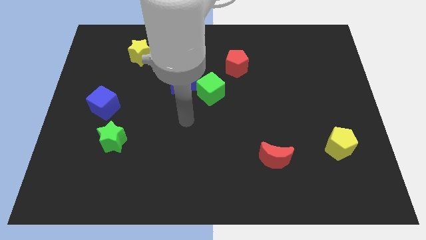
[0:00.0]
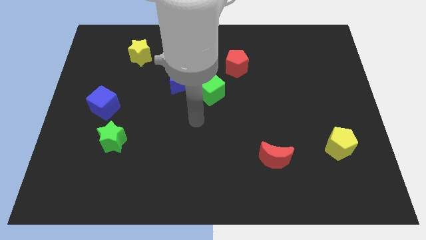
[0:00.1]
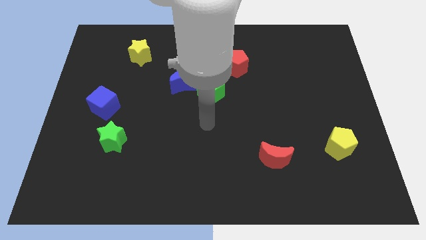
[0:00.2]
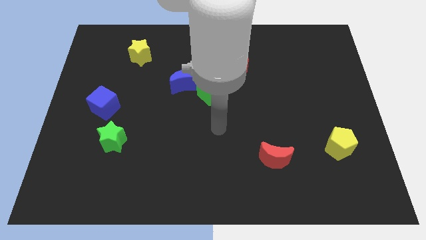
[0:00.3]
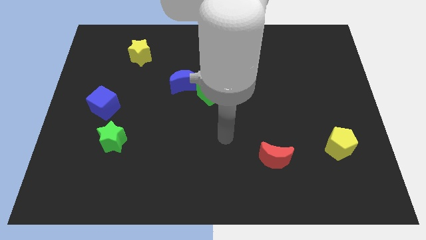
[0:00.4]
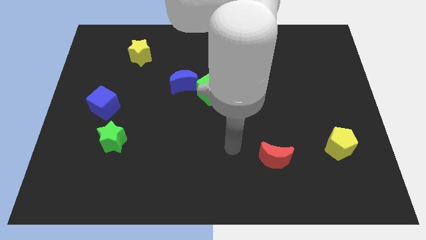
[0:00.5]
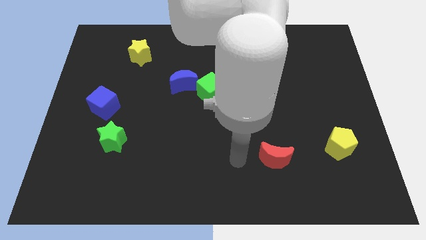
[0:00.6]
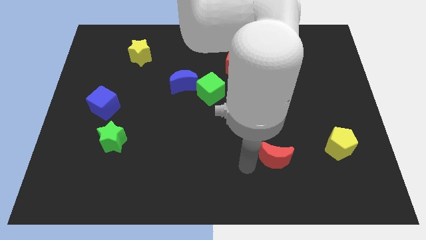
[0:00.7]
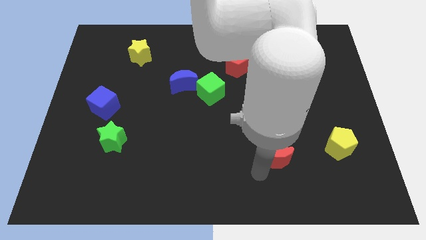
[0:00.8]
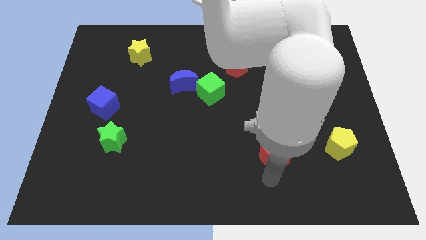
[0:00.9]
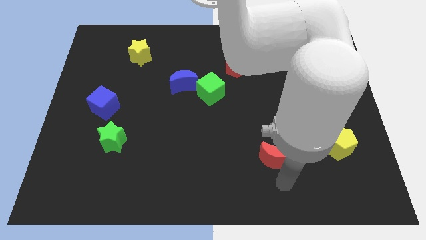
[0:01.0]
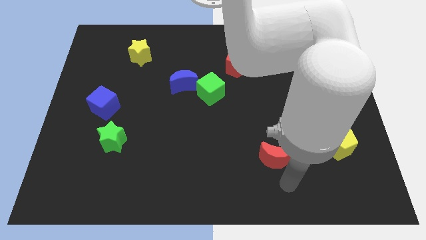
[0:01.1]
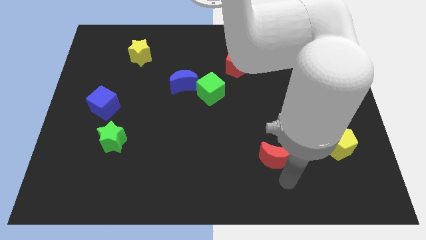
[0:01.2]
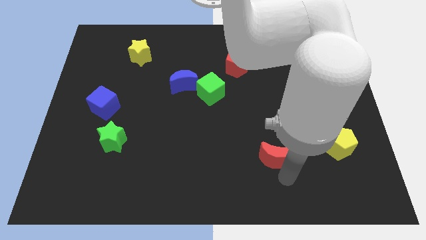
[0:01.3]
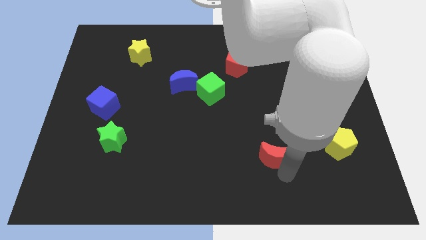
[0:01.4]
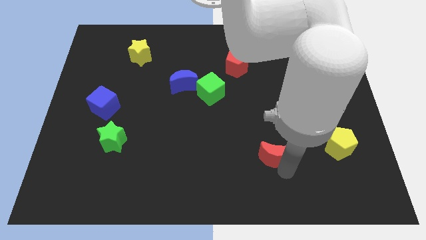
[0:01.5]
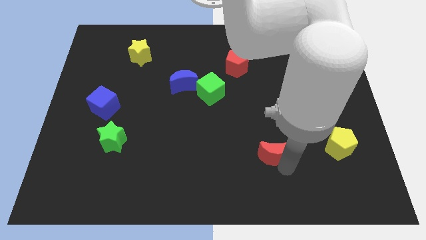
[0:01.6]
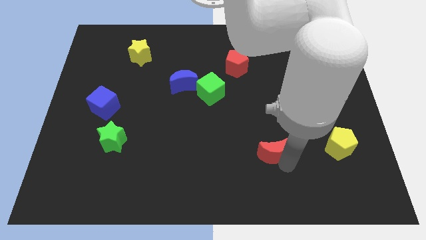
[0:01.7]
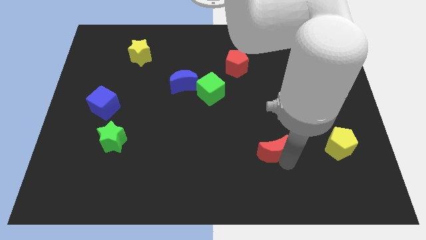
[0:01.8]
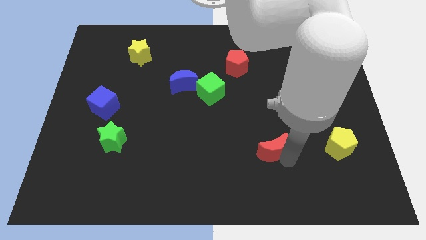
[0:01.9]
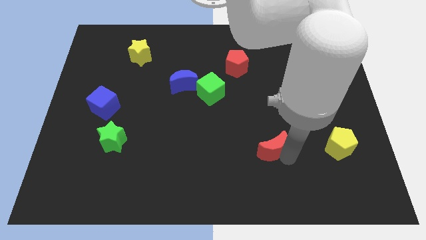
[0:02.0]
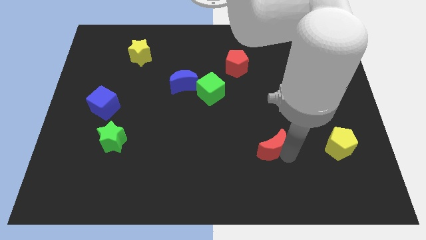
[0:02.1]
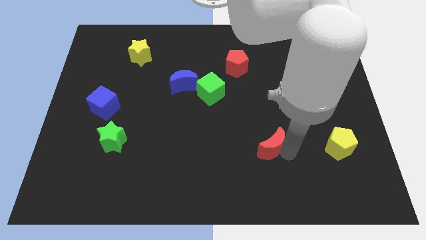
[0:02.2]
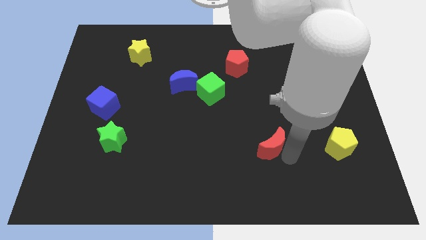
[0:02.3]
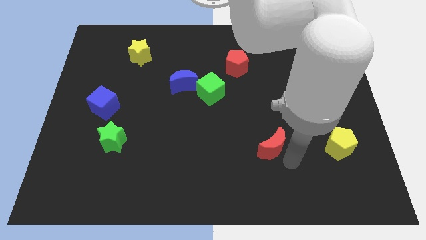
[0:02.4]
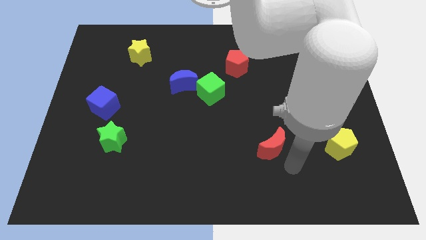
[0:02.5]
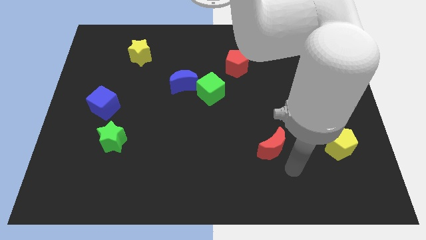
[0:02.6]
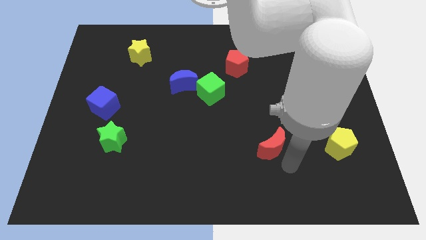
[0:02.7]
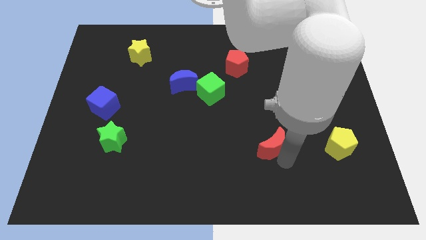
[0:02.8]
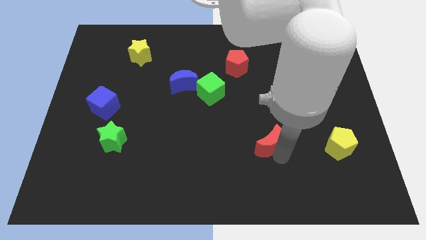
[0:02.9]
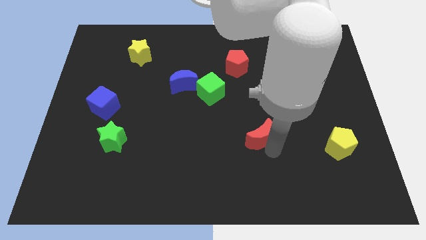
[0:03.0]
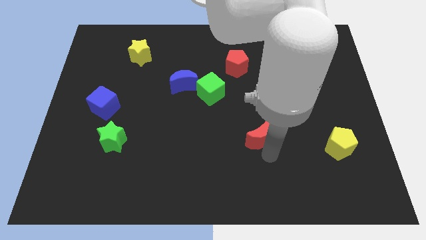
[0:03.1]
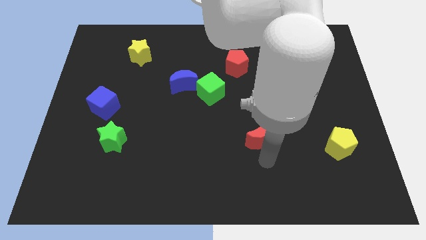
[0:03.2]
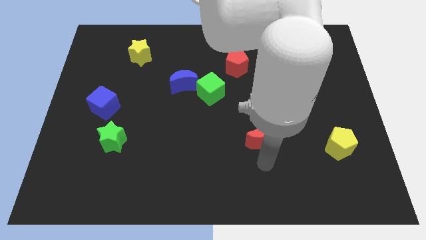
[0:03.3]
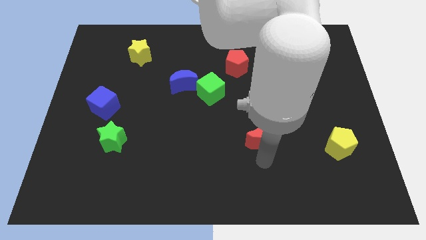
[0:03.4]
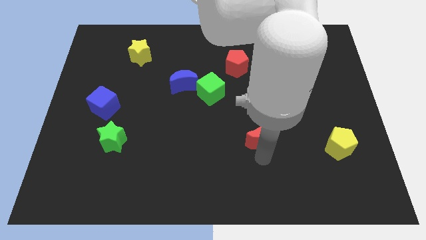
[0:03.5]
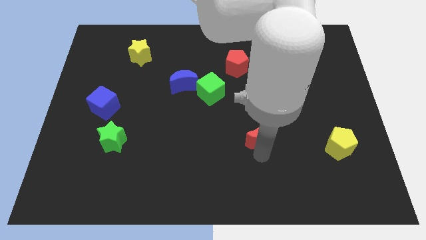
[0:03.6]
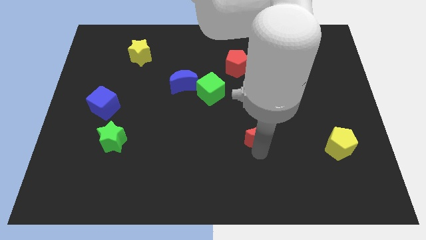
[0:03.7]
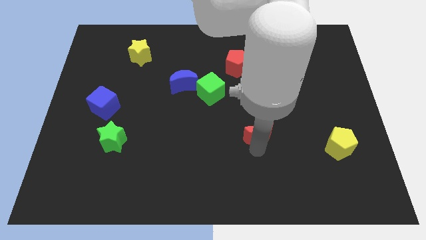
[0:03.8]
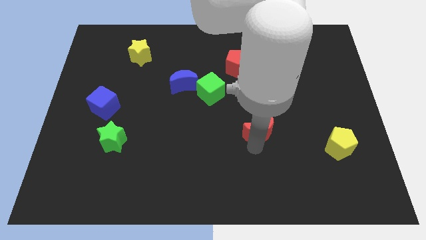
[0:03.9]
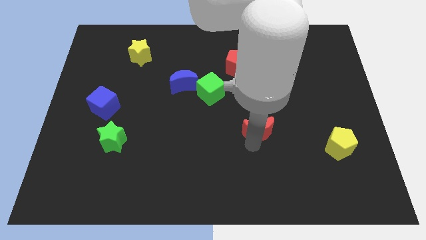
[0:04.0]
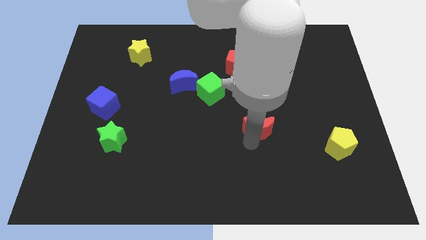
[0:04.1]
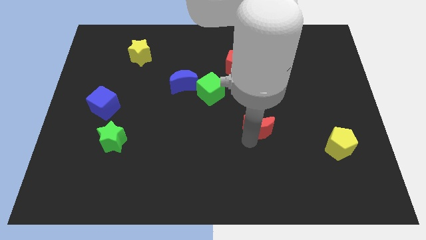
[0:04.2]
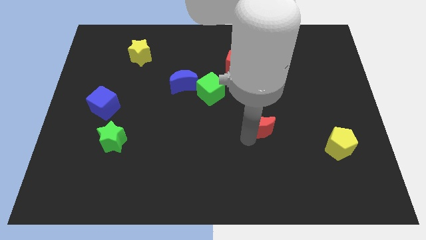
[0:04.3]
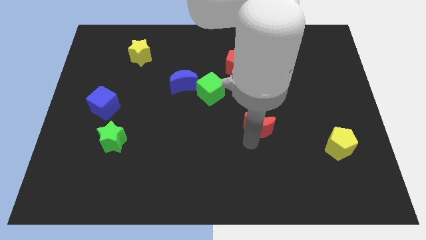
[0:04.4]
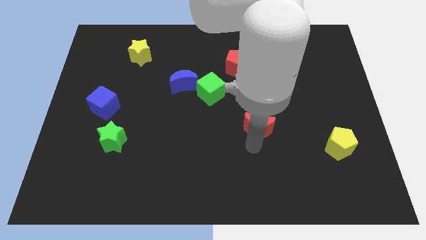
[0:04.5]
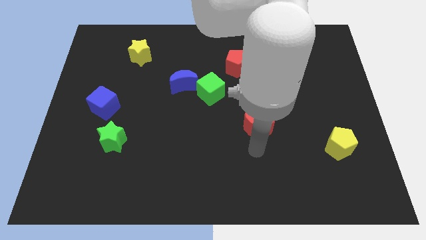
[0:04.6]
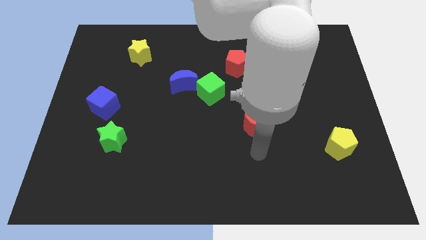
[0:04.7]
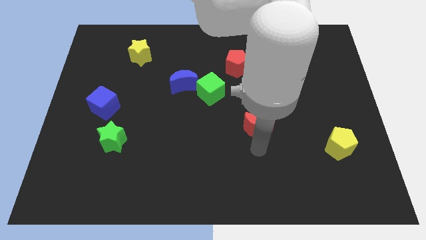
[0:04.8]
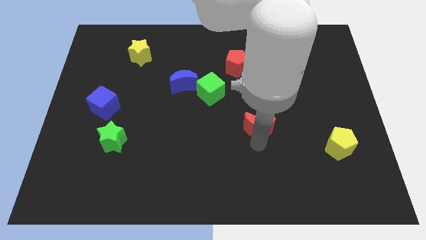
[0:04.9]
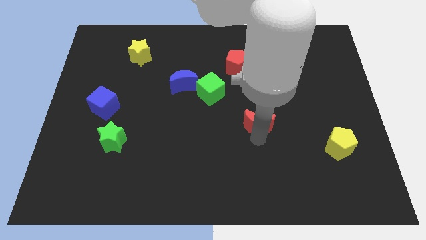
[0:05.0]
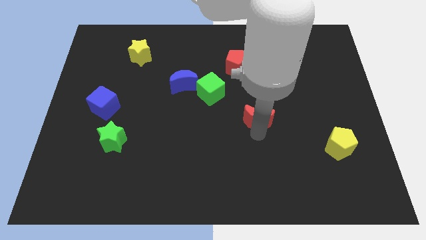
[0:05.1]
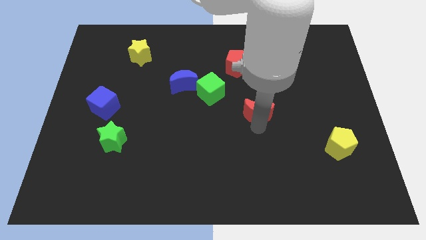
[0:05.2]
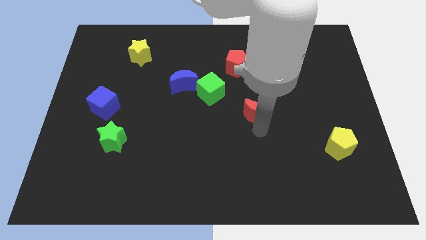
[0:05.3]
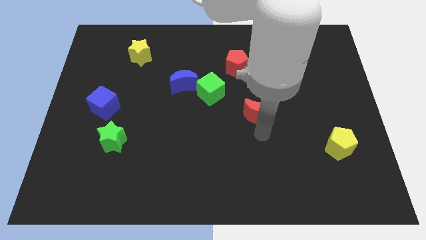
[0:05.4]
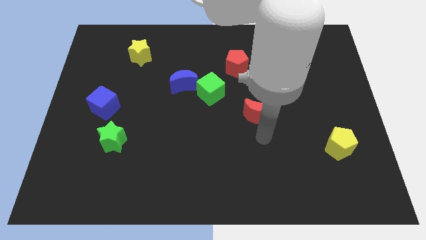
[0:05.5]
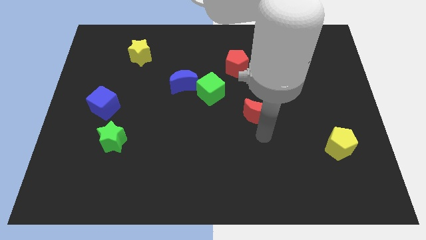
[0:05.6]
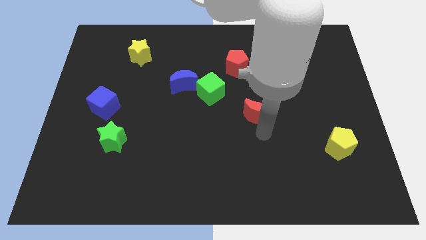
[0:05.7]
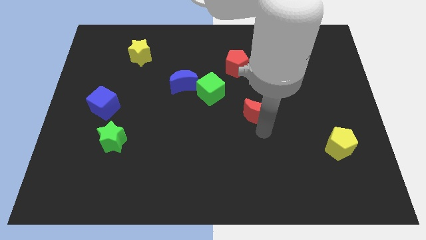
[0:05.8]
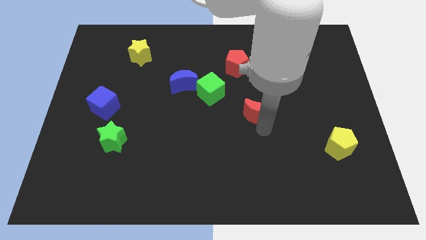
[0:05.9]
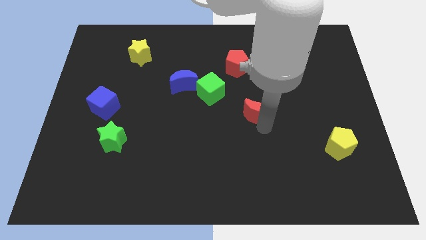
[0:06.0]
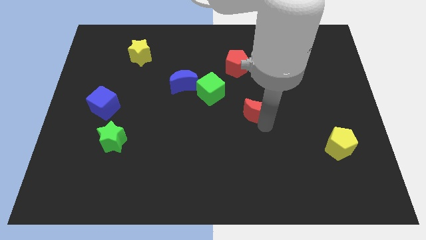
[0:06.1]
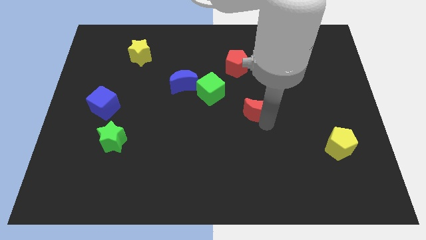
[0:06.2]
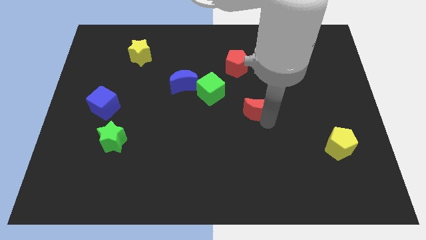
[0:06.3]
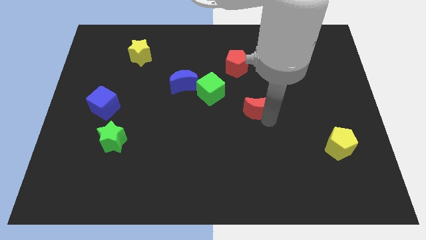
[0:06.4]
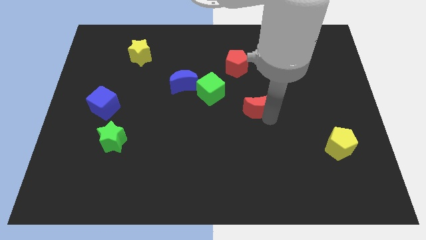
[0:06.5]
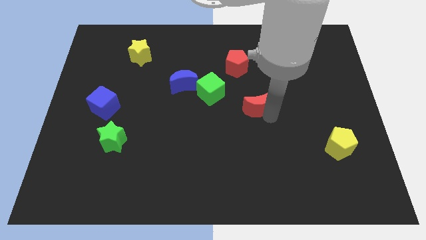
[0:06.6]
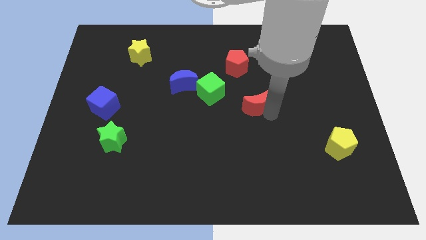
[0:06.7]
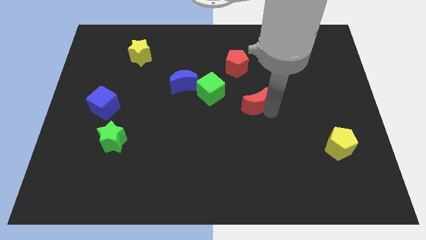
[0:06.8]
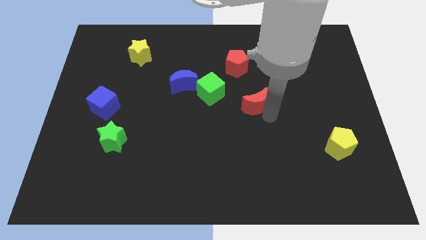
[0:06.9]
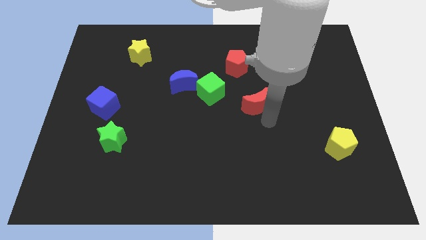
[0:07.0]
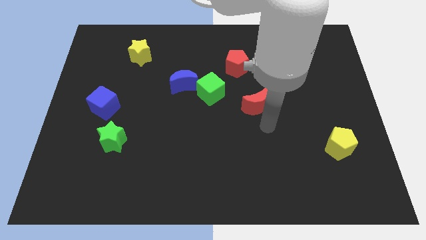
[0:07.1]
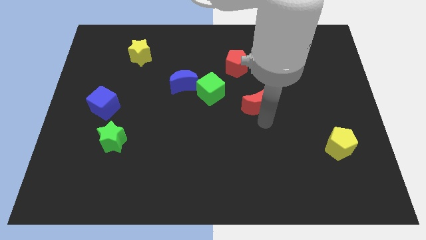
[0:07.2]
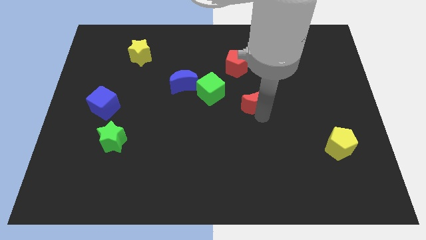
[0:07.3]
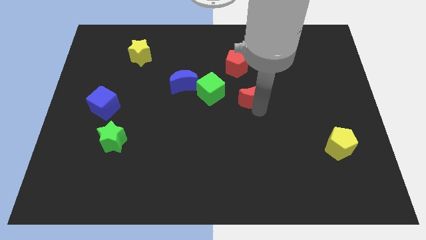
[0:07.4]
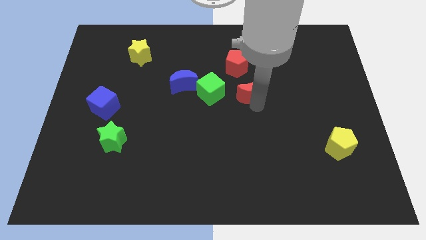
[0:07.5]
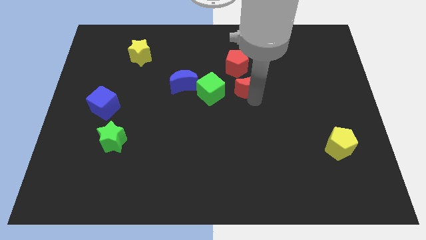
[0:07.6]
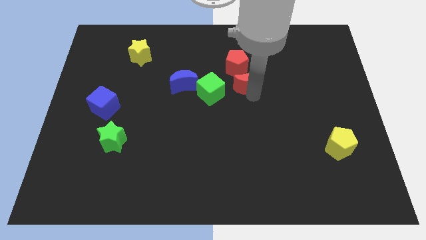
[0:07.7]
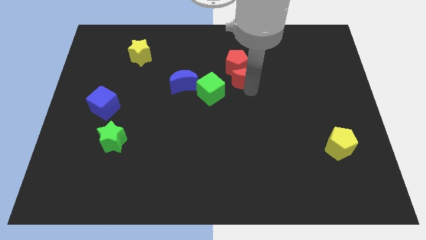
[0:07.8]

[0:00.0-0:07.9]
slide the red moon next to the red pentagon

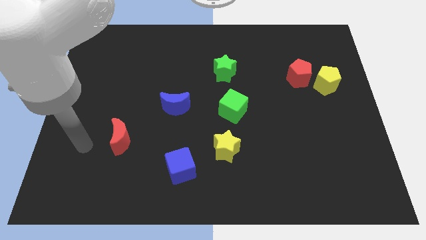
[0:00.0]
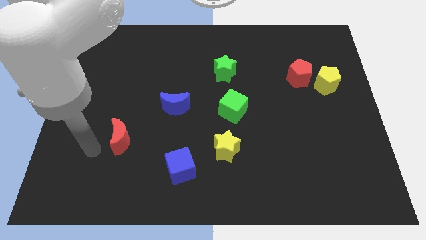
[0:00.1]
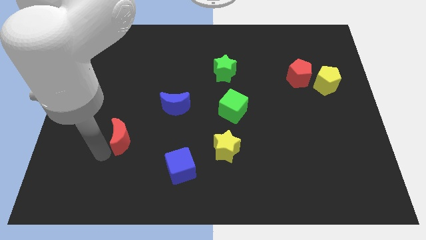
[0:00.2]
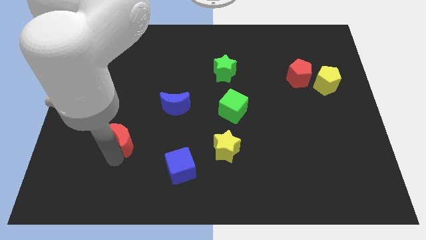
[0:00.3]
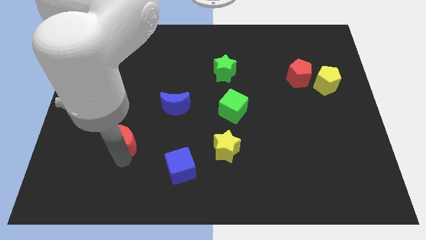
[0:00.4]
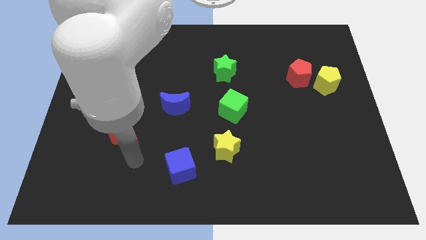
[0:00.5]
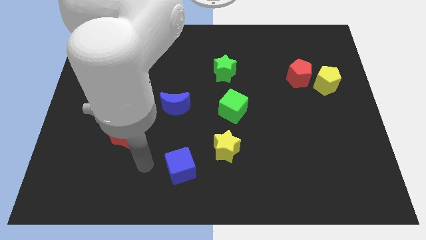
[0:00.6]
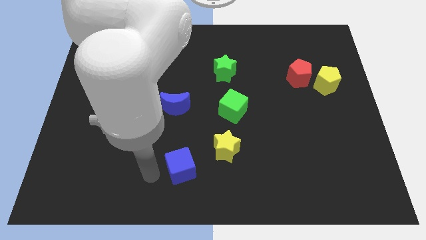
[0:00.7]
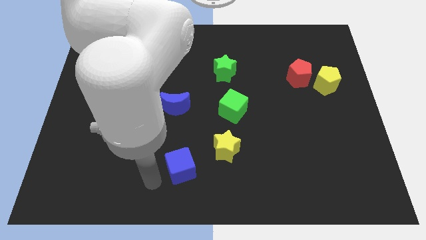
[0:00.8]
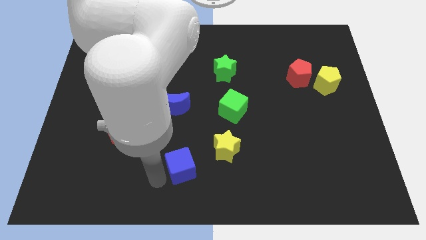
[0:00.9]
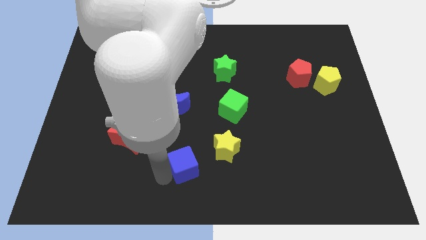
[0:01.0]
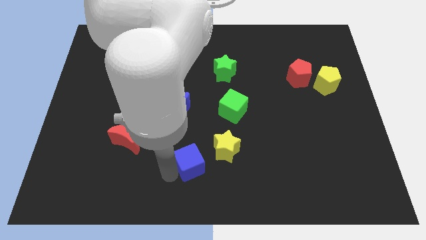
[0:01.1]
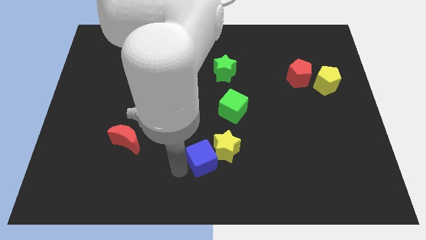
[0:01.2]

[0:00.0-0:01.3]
put the blue cube towards the yellow star
